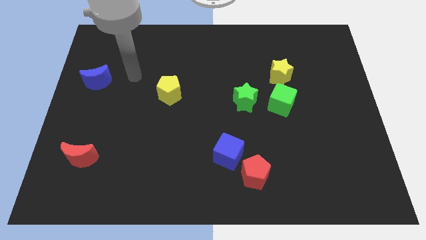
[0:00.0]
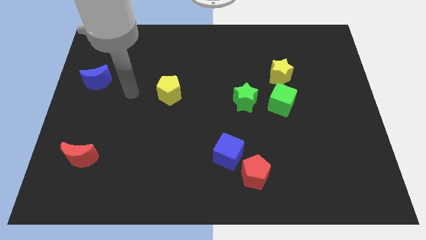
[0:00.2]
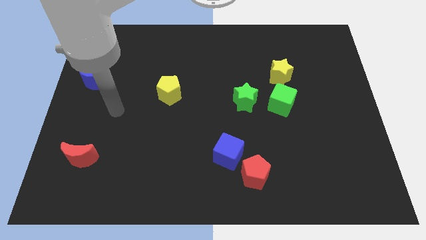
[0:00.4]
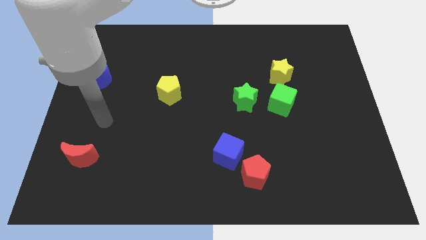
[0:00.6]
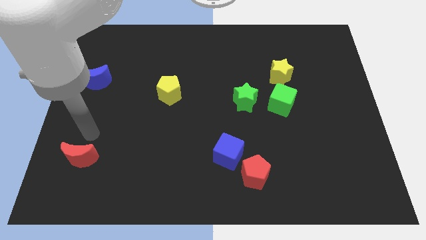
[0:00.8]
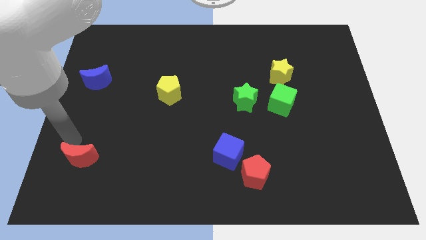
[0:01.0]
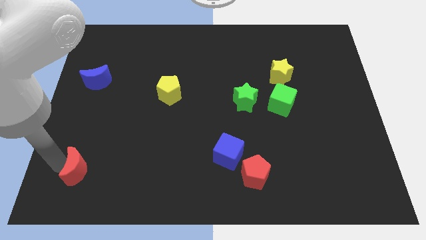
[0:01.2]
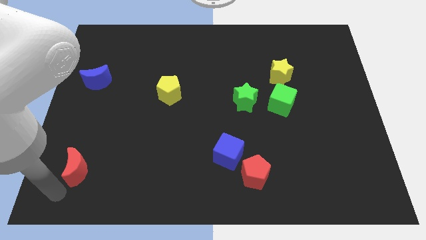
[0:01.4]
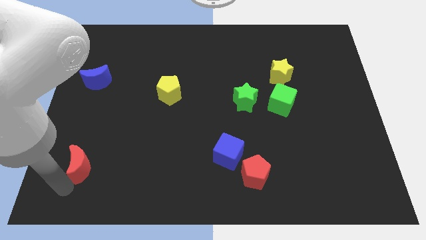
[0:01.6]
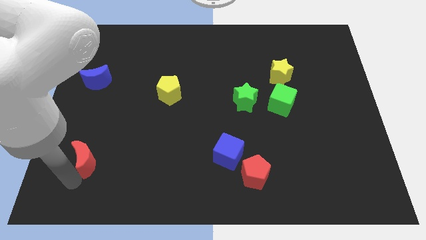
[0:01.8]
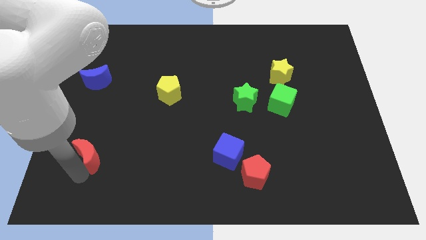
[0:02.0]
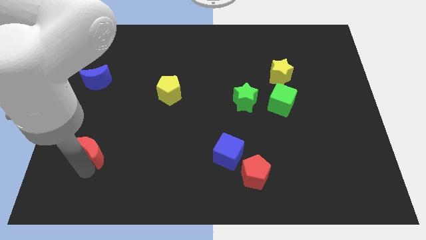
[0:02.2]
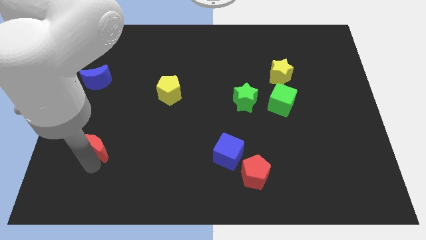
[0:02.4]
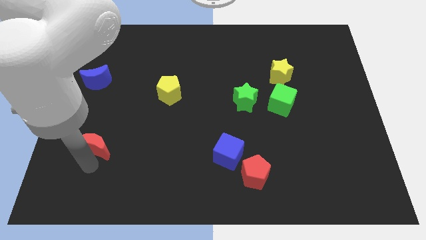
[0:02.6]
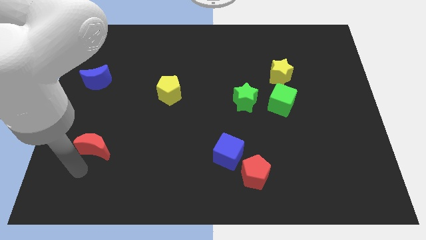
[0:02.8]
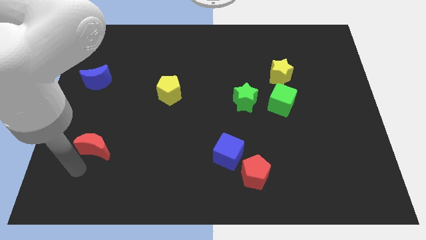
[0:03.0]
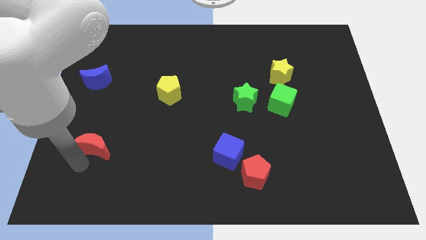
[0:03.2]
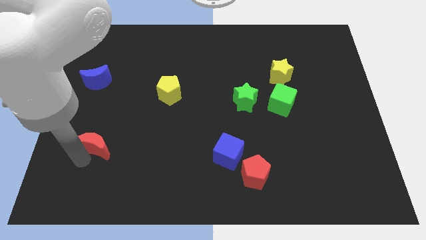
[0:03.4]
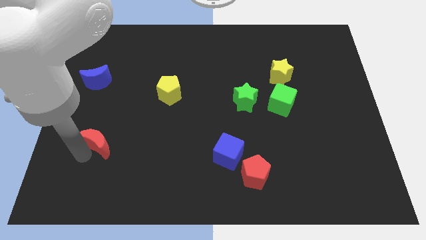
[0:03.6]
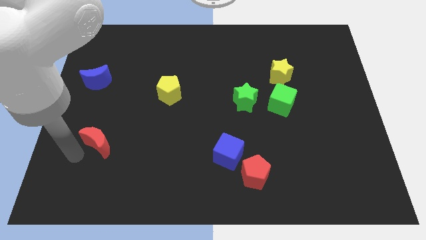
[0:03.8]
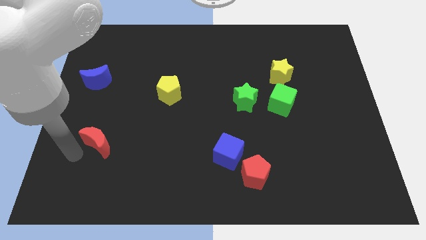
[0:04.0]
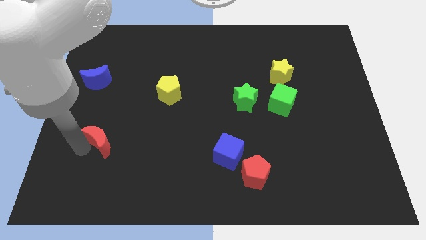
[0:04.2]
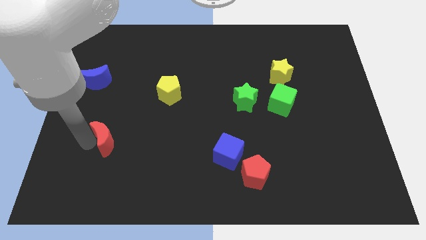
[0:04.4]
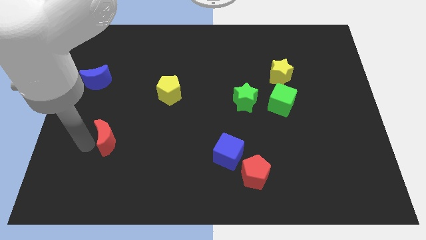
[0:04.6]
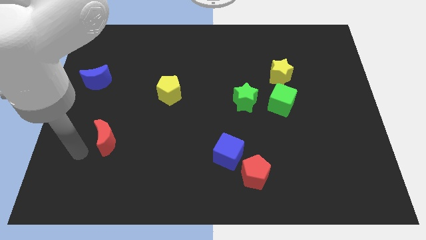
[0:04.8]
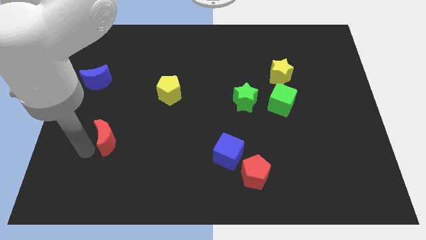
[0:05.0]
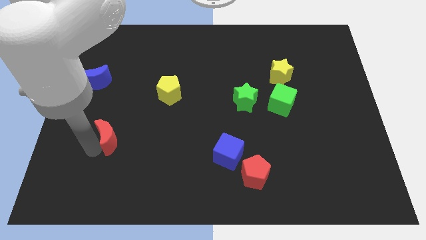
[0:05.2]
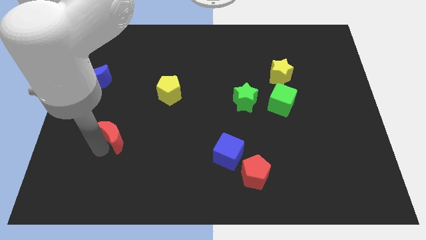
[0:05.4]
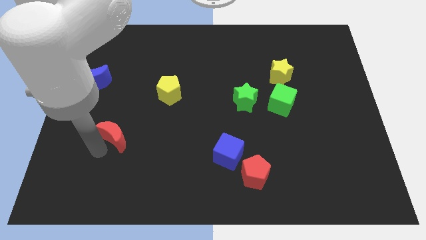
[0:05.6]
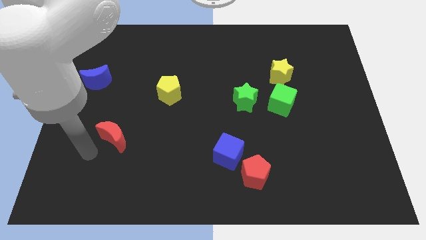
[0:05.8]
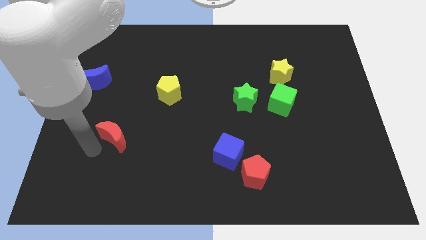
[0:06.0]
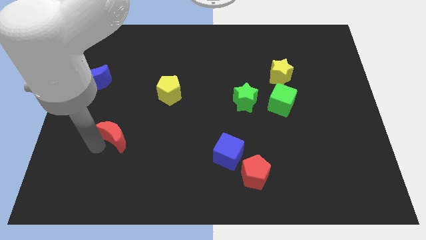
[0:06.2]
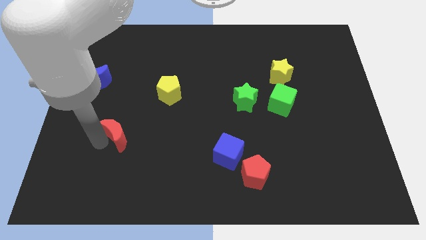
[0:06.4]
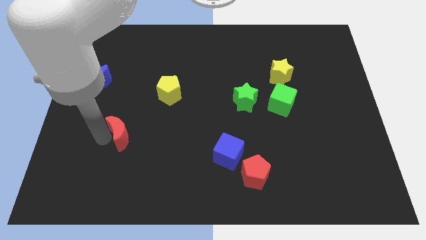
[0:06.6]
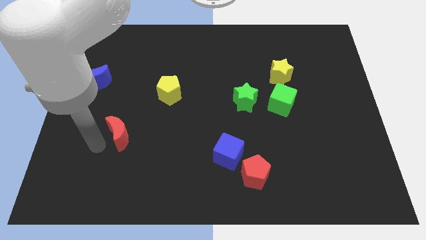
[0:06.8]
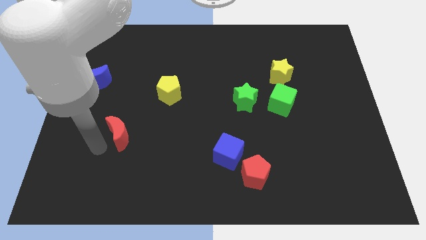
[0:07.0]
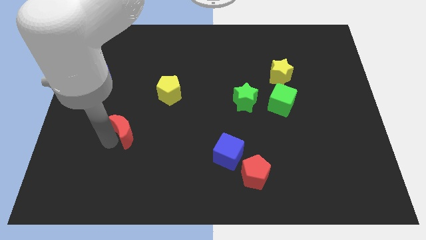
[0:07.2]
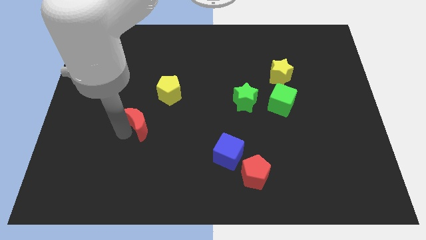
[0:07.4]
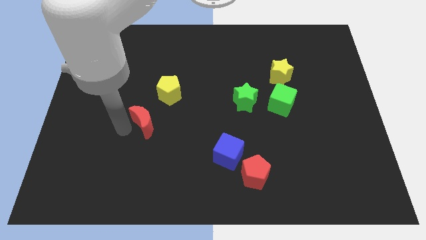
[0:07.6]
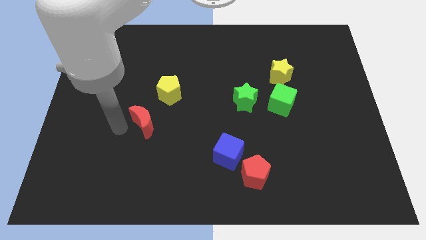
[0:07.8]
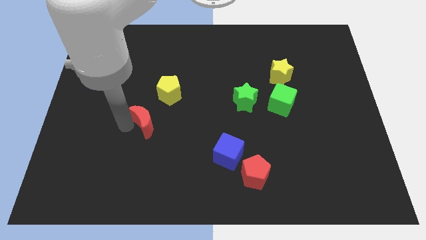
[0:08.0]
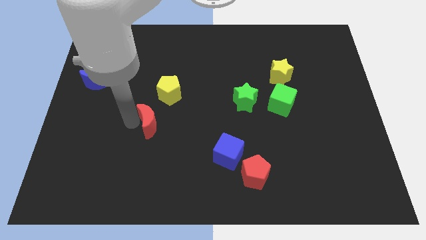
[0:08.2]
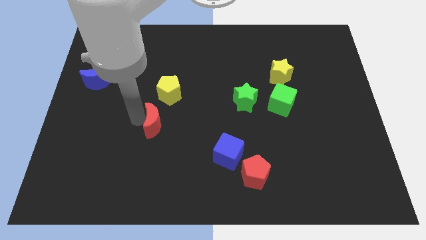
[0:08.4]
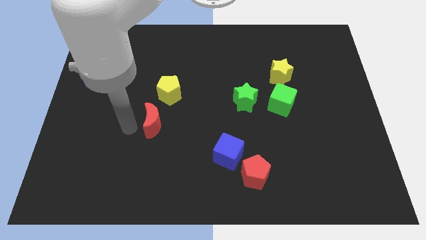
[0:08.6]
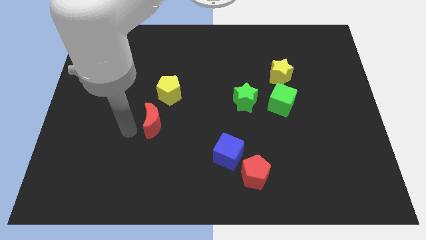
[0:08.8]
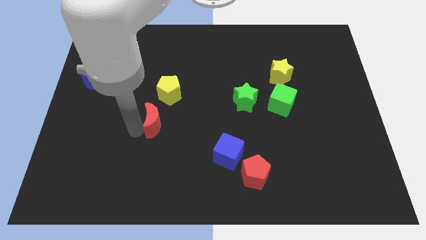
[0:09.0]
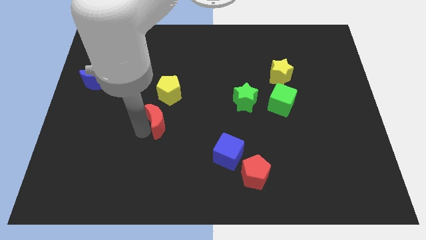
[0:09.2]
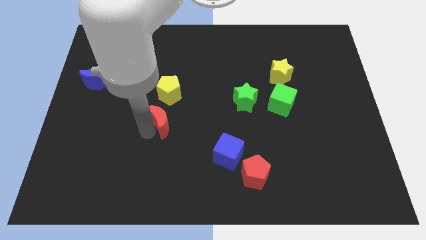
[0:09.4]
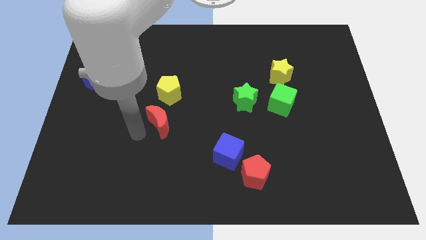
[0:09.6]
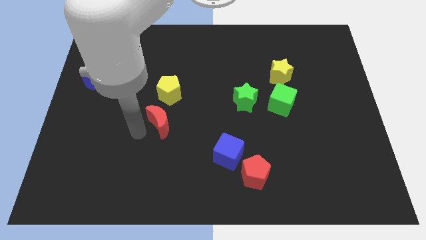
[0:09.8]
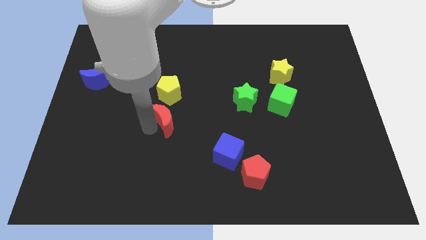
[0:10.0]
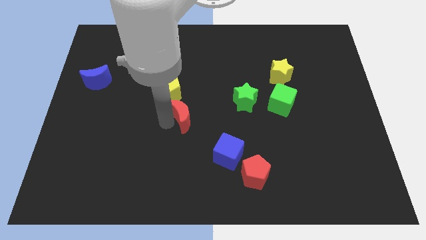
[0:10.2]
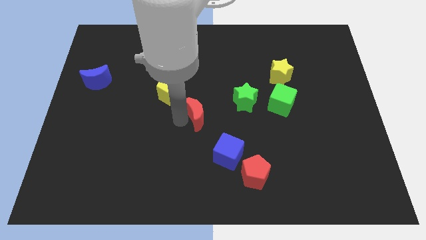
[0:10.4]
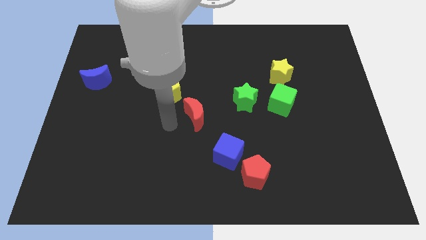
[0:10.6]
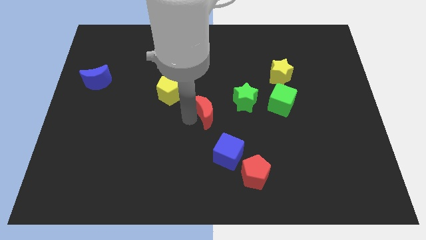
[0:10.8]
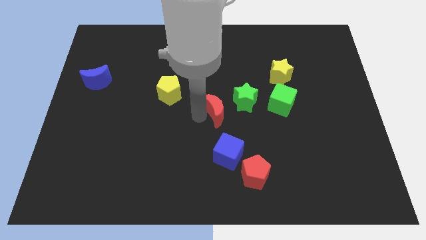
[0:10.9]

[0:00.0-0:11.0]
push the red moon just left of the green cube

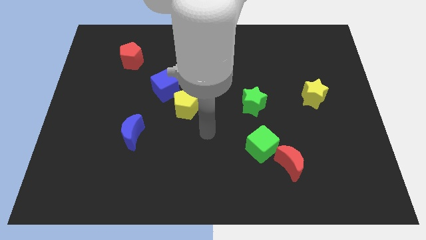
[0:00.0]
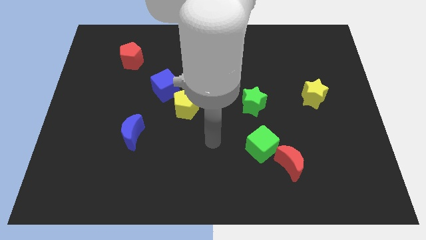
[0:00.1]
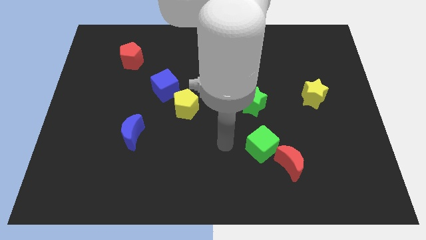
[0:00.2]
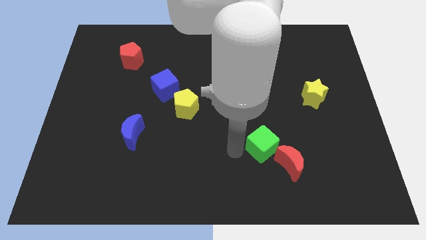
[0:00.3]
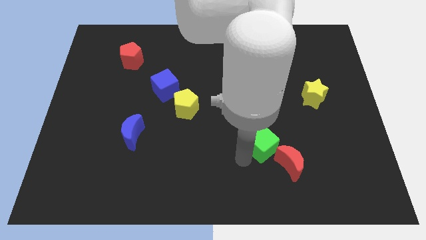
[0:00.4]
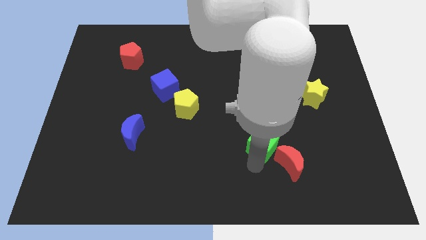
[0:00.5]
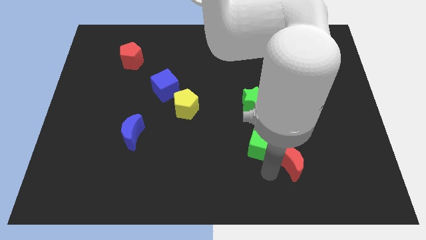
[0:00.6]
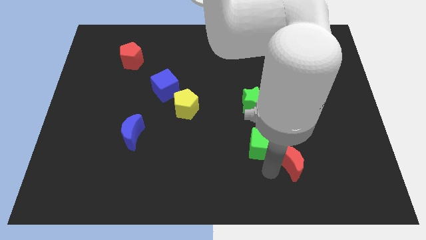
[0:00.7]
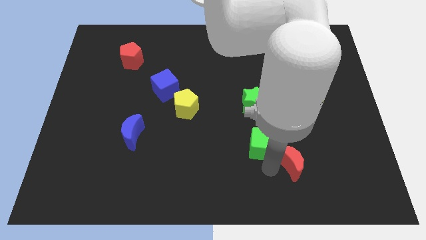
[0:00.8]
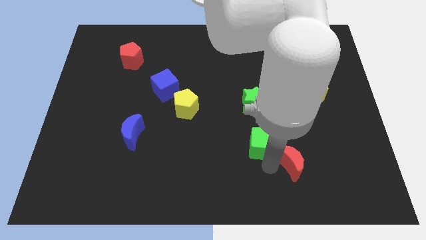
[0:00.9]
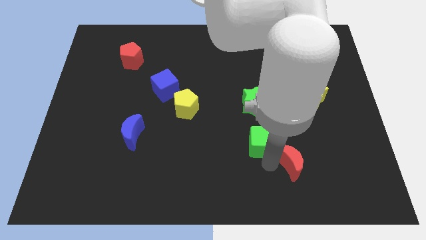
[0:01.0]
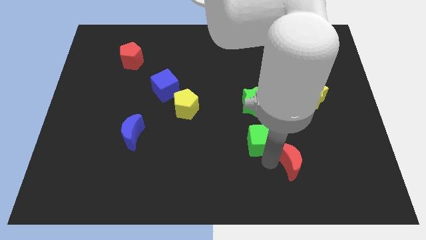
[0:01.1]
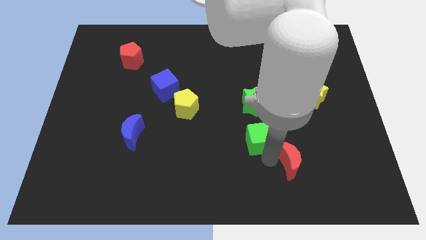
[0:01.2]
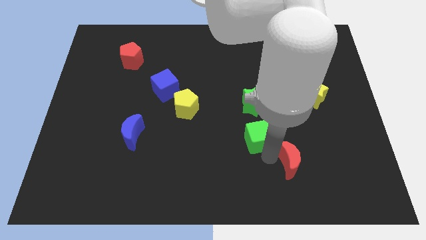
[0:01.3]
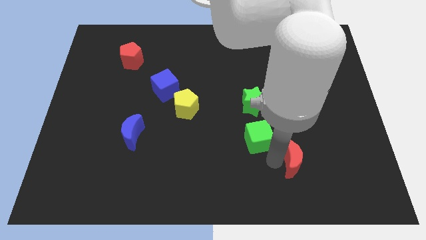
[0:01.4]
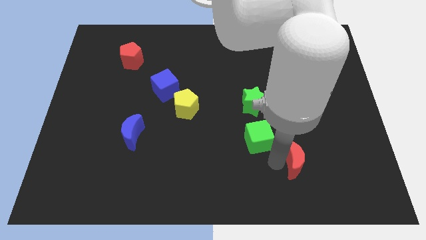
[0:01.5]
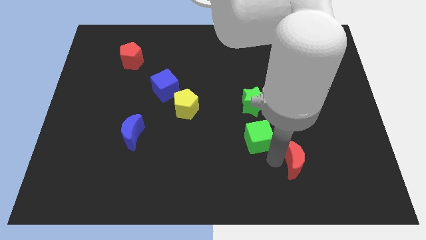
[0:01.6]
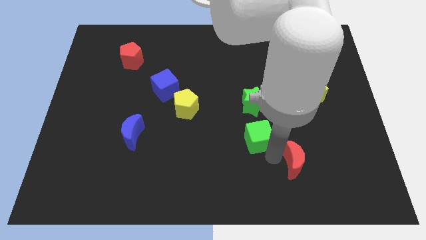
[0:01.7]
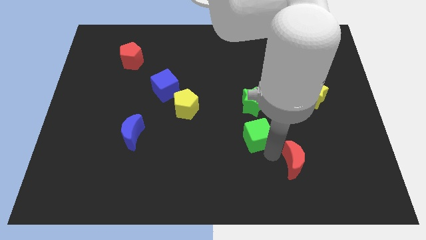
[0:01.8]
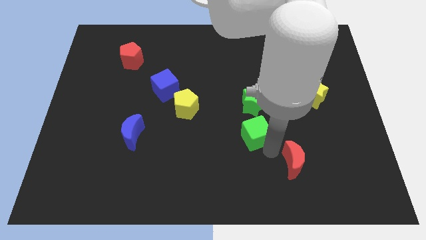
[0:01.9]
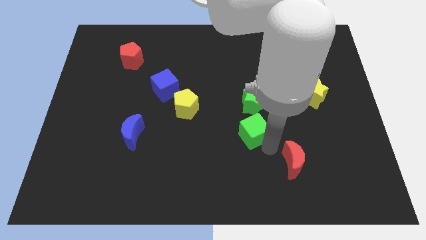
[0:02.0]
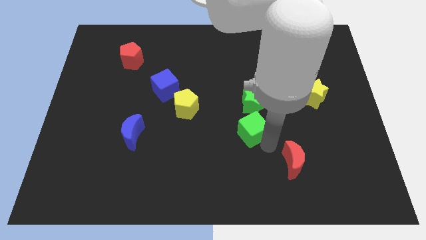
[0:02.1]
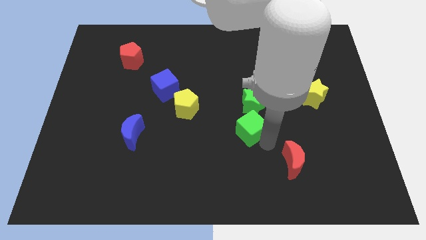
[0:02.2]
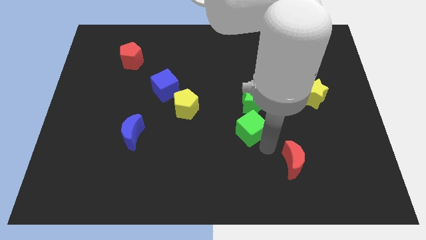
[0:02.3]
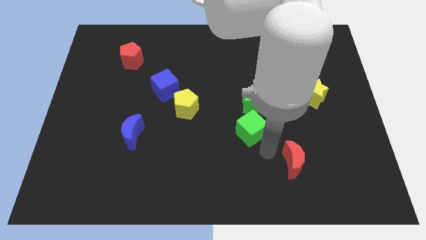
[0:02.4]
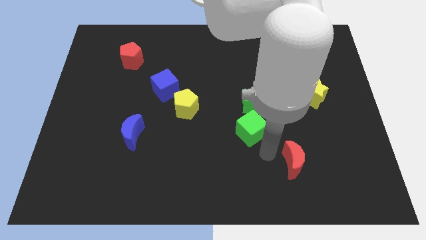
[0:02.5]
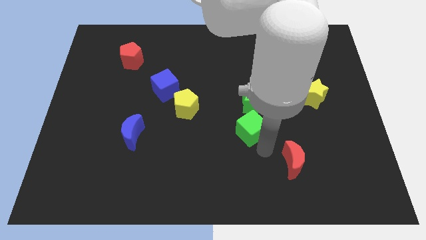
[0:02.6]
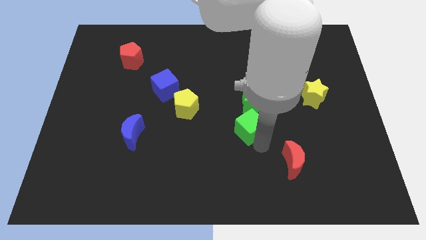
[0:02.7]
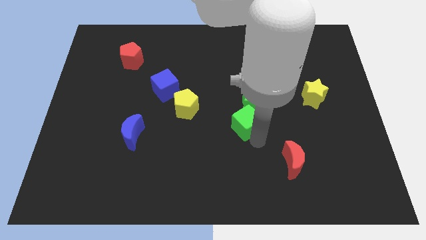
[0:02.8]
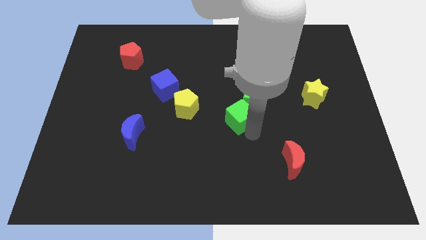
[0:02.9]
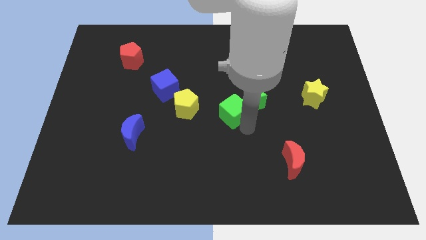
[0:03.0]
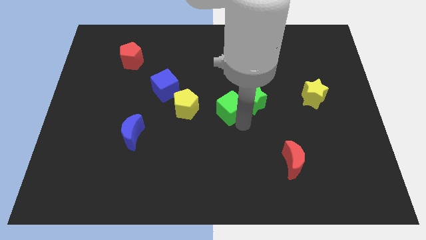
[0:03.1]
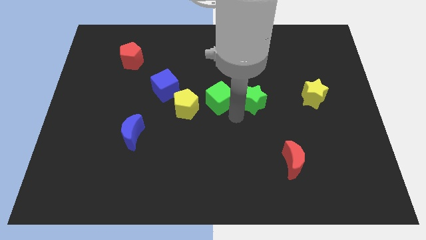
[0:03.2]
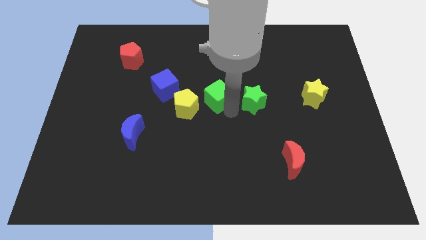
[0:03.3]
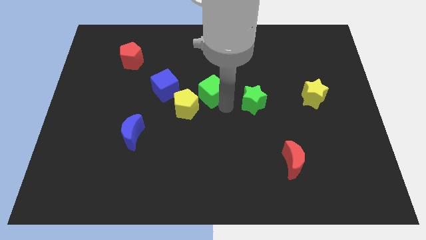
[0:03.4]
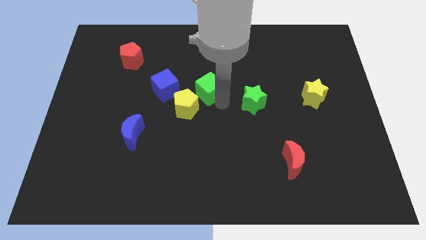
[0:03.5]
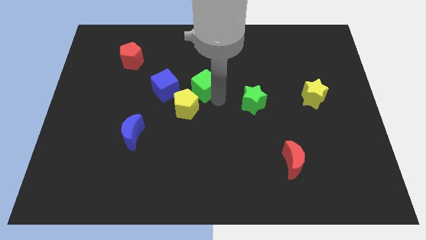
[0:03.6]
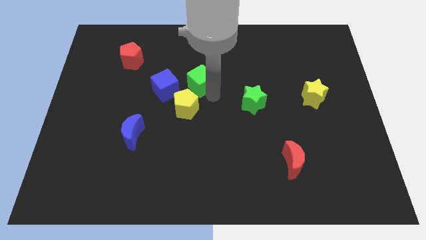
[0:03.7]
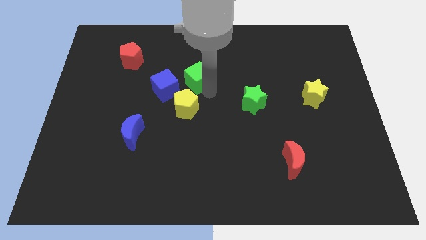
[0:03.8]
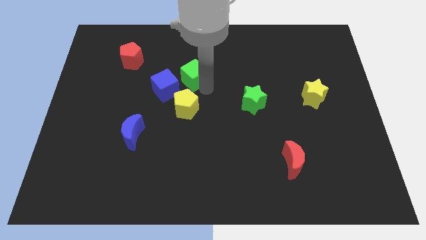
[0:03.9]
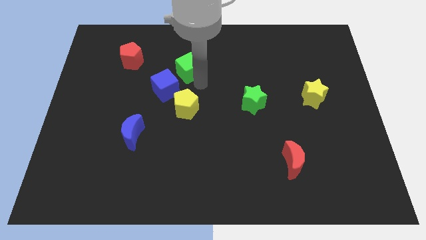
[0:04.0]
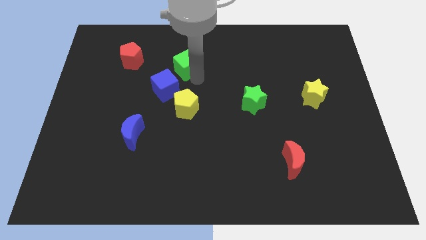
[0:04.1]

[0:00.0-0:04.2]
put the green cube to the right of the red pentagon
